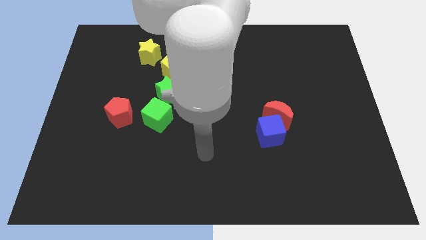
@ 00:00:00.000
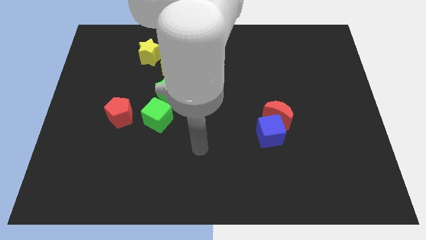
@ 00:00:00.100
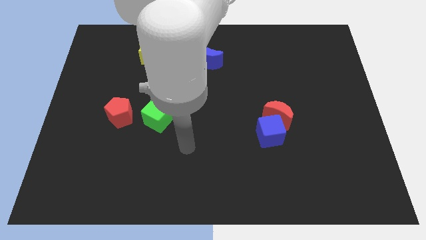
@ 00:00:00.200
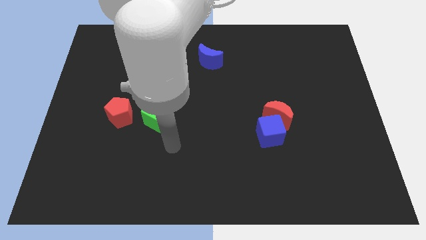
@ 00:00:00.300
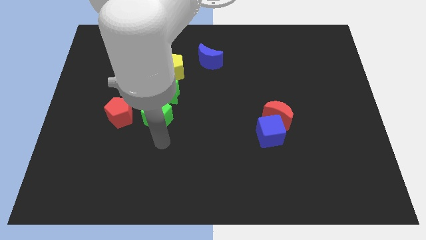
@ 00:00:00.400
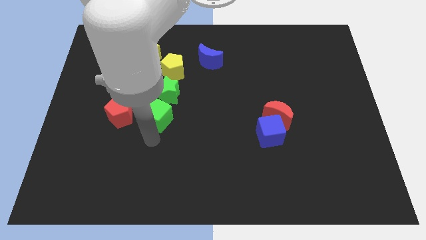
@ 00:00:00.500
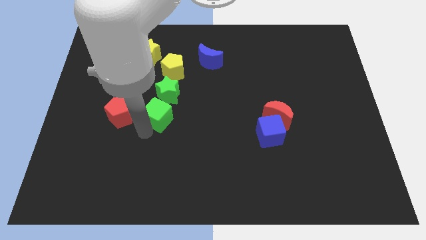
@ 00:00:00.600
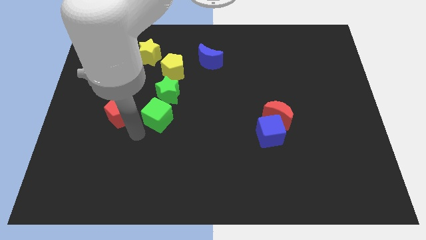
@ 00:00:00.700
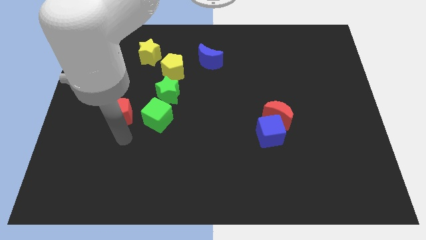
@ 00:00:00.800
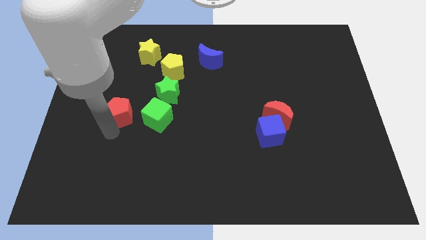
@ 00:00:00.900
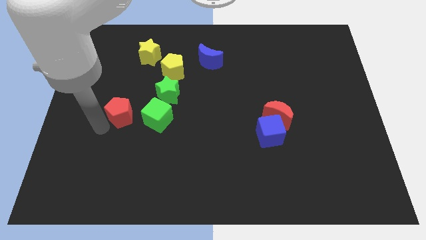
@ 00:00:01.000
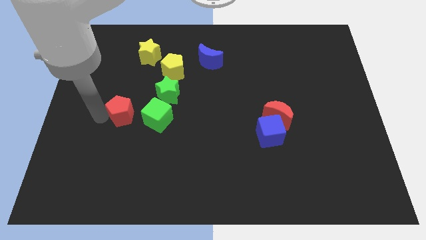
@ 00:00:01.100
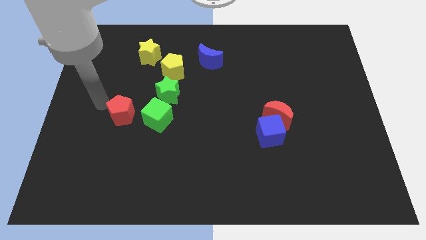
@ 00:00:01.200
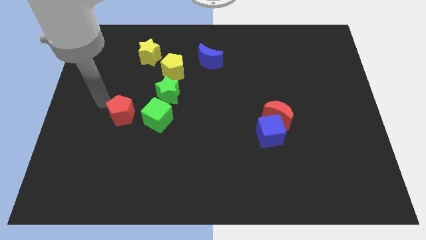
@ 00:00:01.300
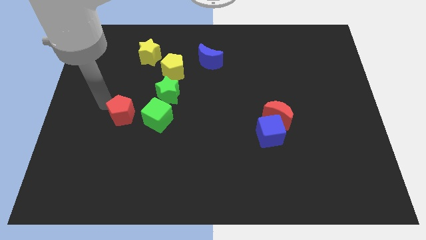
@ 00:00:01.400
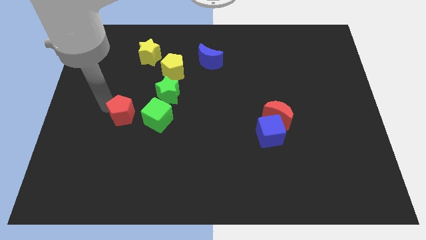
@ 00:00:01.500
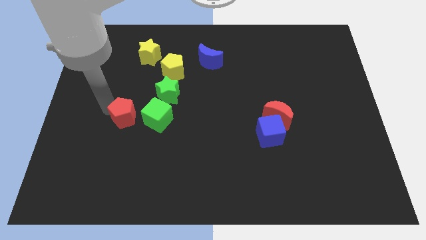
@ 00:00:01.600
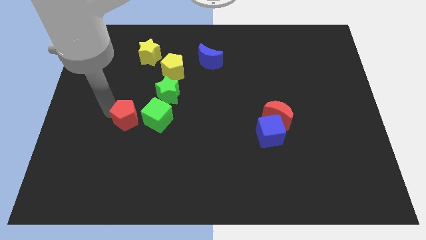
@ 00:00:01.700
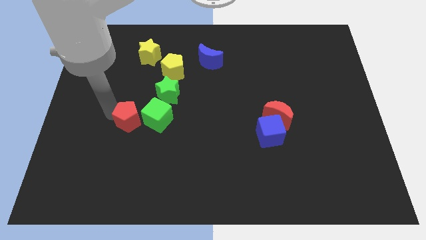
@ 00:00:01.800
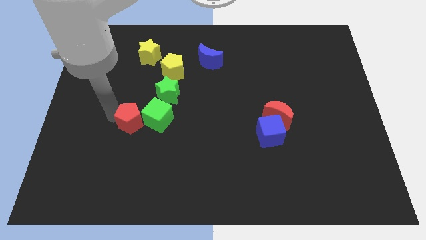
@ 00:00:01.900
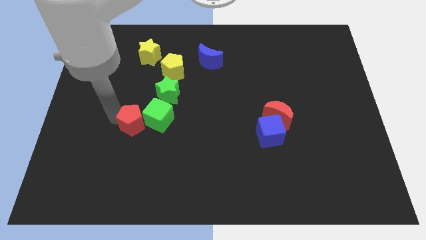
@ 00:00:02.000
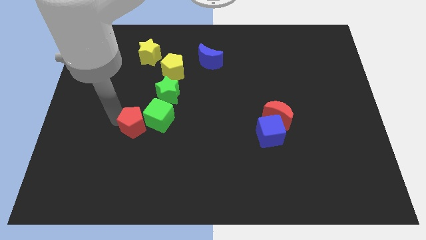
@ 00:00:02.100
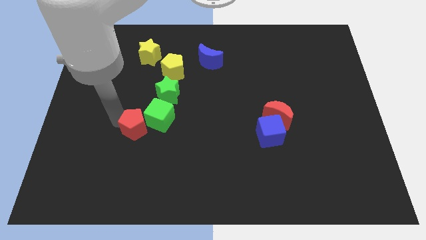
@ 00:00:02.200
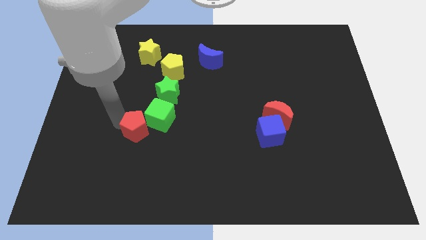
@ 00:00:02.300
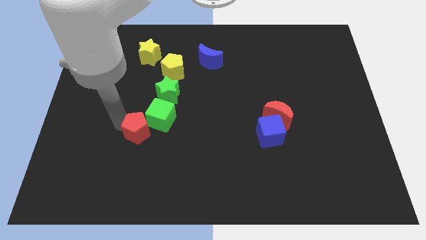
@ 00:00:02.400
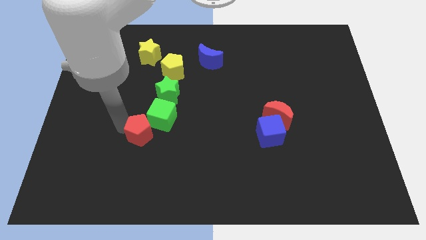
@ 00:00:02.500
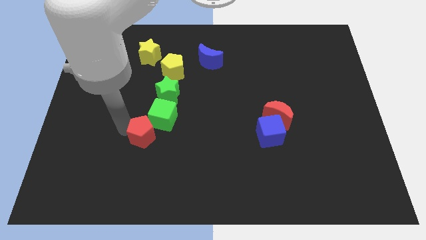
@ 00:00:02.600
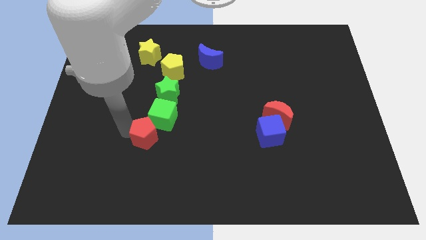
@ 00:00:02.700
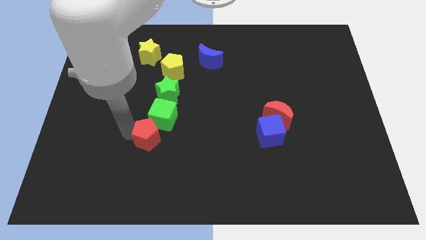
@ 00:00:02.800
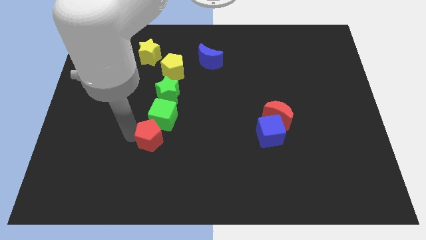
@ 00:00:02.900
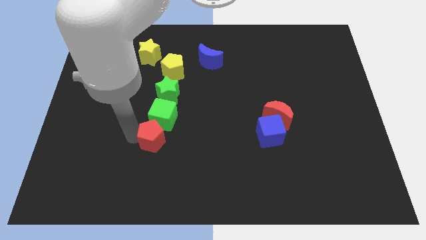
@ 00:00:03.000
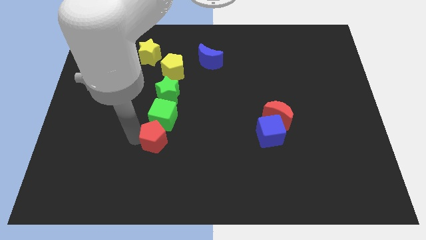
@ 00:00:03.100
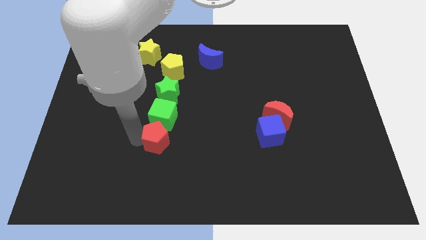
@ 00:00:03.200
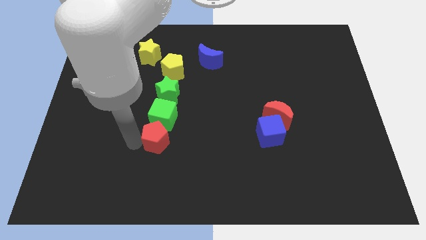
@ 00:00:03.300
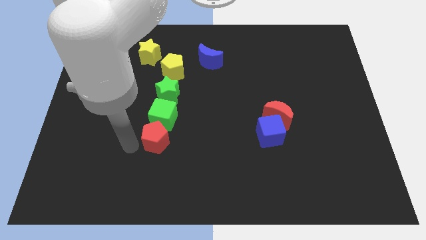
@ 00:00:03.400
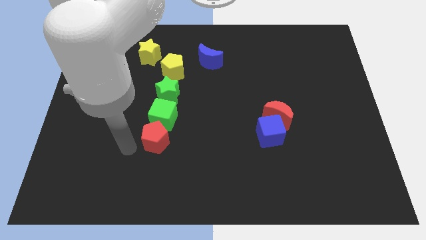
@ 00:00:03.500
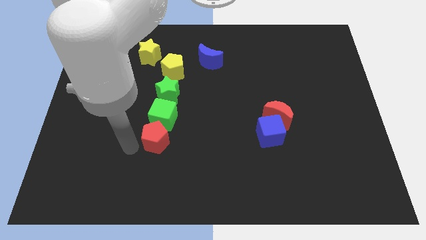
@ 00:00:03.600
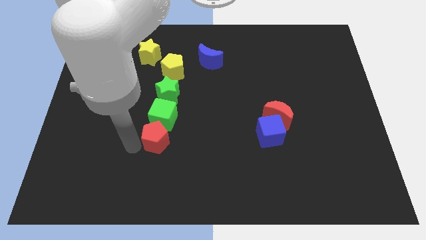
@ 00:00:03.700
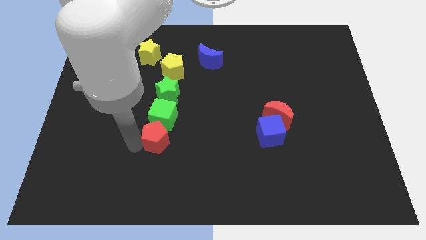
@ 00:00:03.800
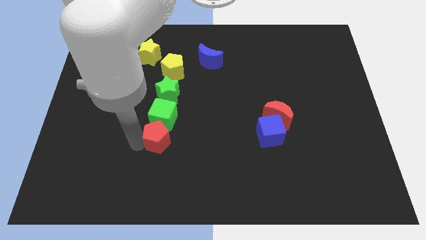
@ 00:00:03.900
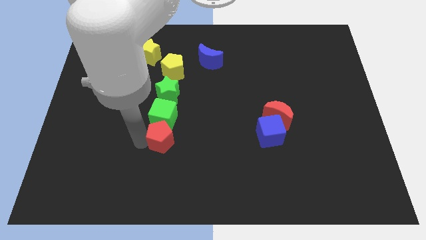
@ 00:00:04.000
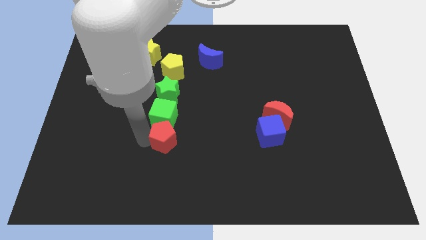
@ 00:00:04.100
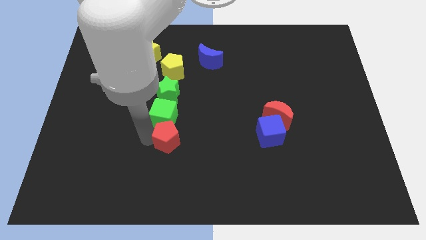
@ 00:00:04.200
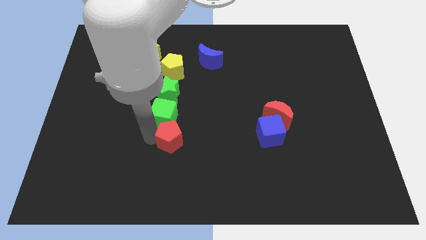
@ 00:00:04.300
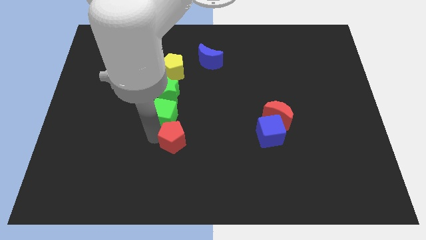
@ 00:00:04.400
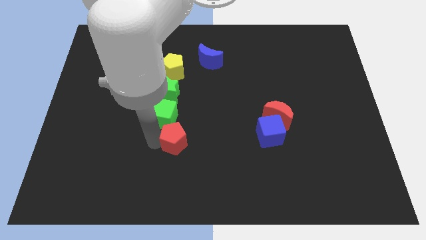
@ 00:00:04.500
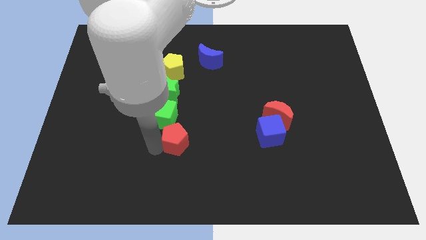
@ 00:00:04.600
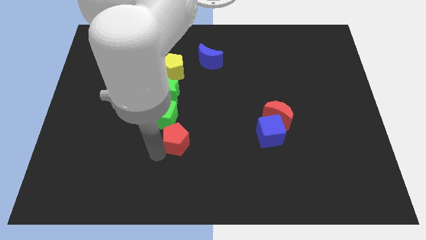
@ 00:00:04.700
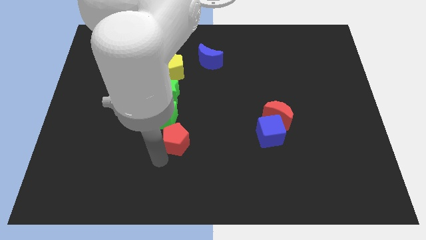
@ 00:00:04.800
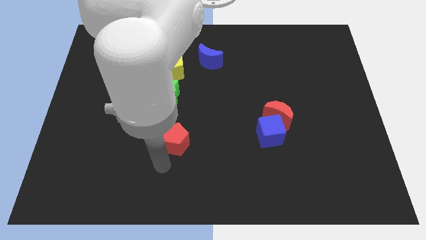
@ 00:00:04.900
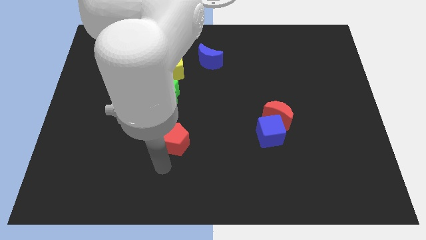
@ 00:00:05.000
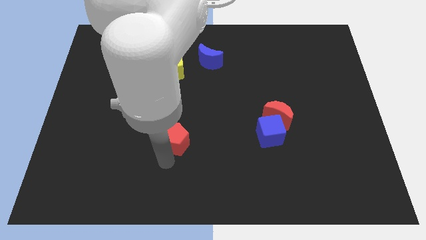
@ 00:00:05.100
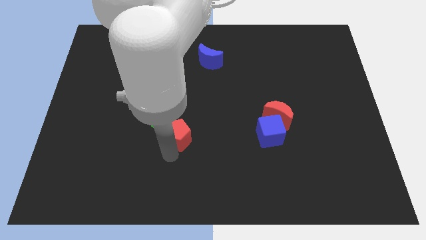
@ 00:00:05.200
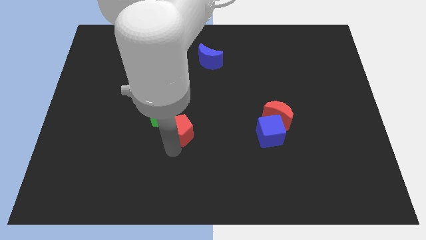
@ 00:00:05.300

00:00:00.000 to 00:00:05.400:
push the red pentagon to the middle of the board
